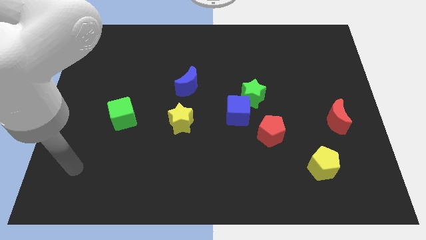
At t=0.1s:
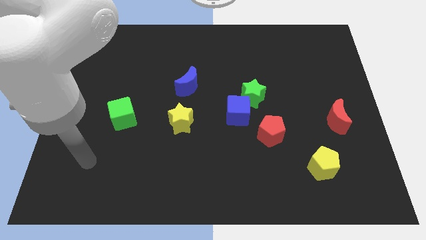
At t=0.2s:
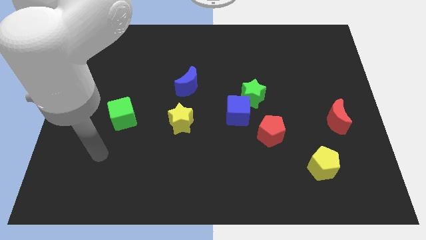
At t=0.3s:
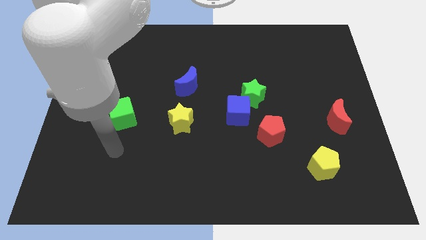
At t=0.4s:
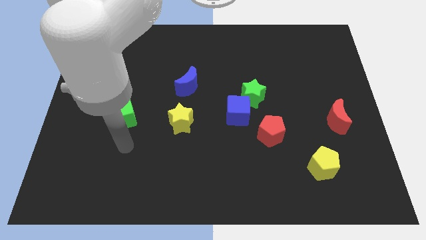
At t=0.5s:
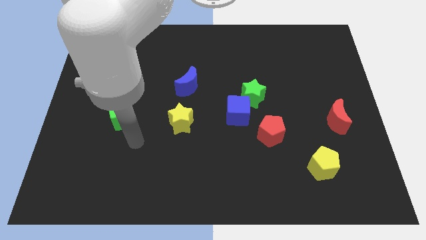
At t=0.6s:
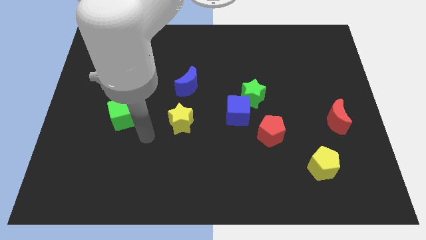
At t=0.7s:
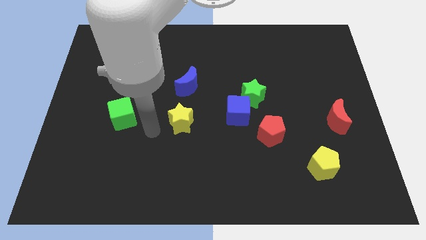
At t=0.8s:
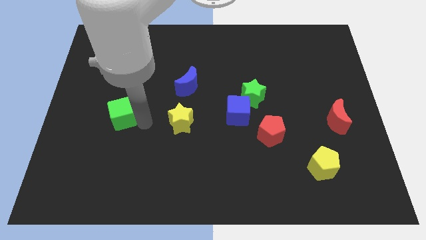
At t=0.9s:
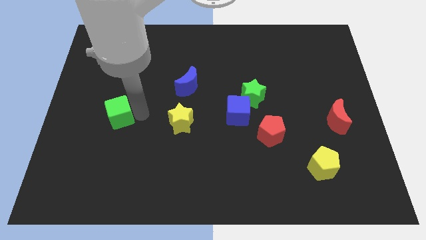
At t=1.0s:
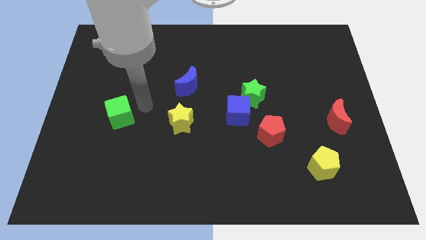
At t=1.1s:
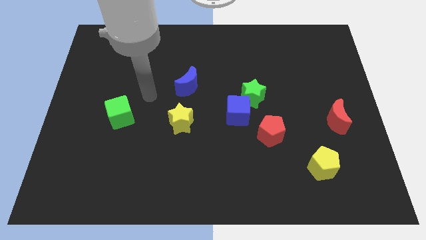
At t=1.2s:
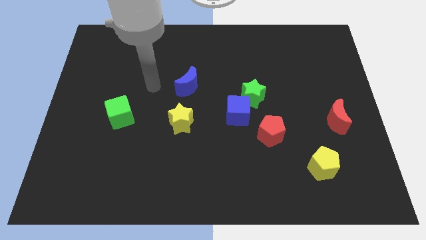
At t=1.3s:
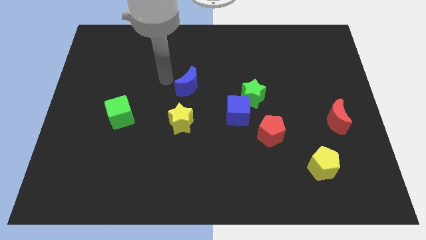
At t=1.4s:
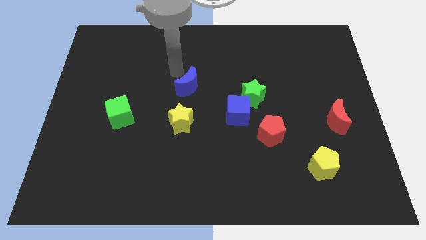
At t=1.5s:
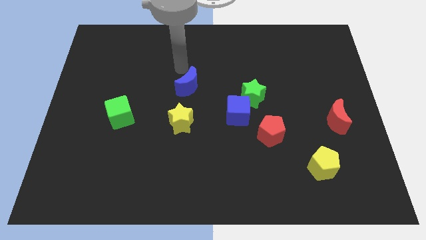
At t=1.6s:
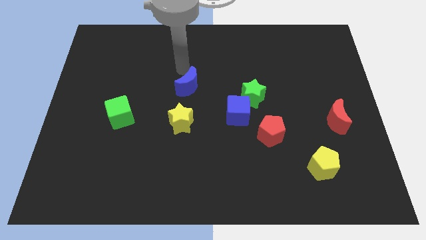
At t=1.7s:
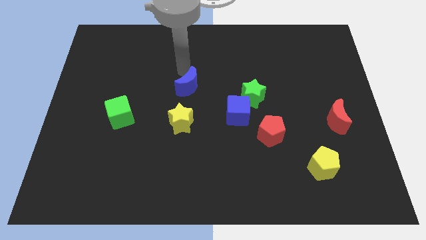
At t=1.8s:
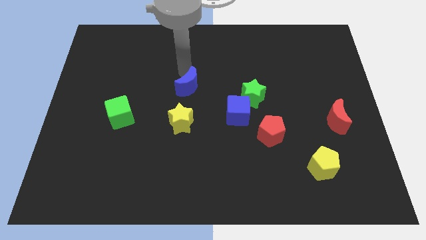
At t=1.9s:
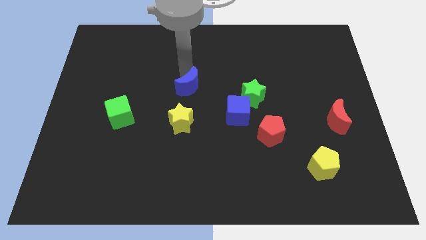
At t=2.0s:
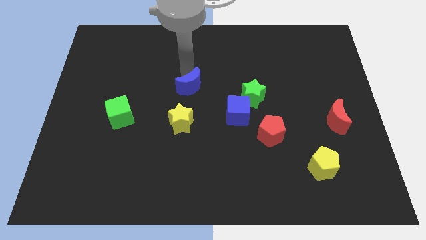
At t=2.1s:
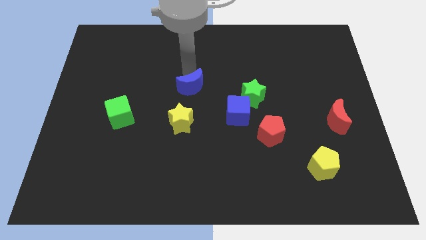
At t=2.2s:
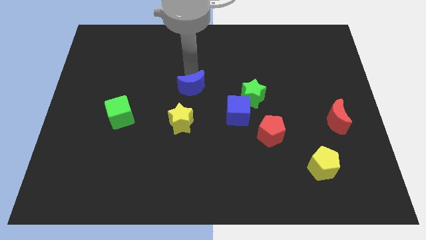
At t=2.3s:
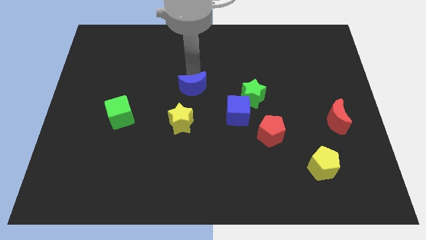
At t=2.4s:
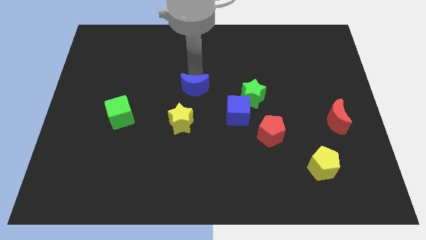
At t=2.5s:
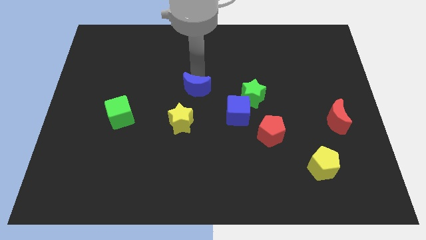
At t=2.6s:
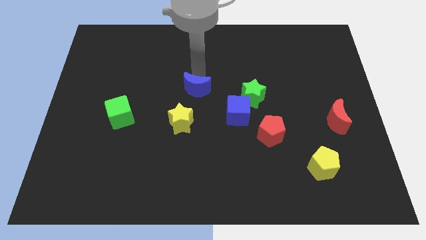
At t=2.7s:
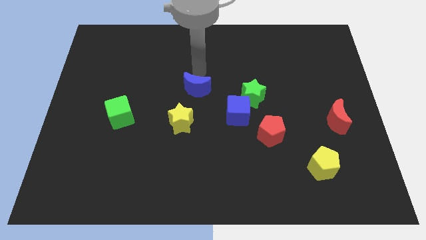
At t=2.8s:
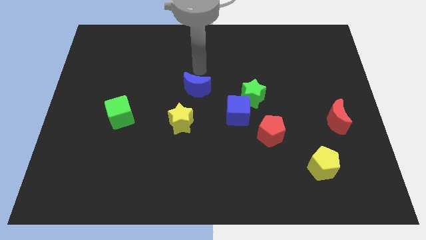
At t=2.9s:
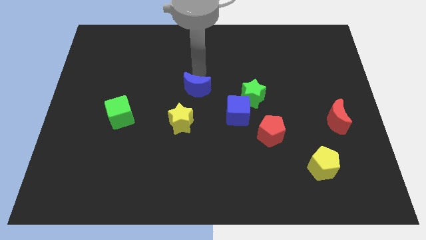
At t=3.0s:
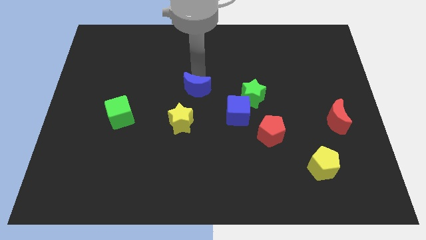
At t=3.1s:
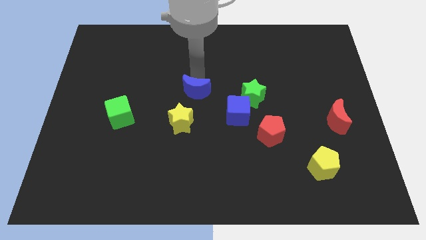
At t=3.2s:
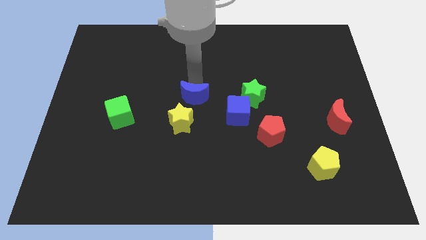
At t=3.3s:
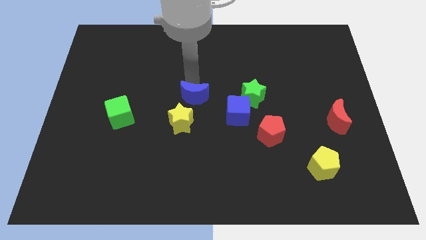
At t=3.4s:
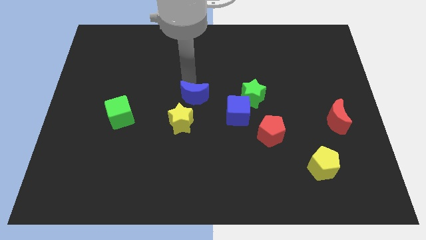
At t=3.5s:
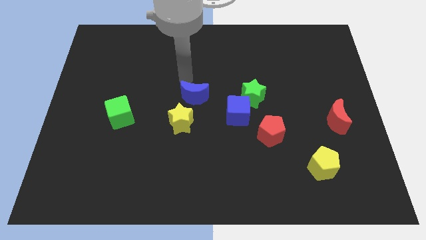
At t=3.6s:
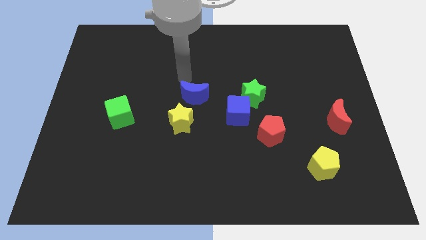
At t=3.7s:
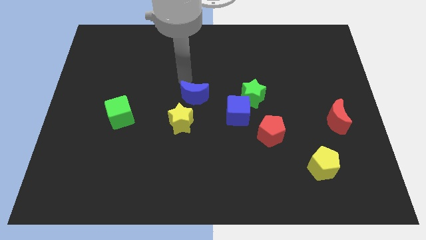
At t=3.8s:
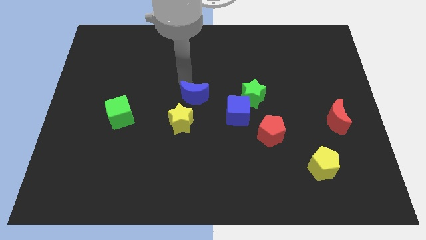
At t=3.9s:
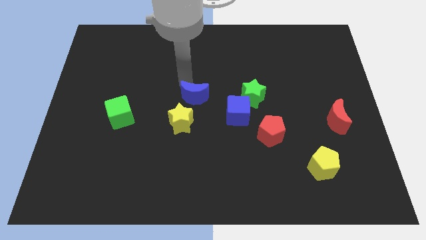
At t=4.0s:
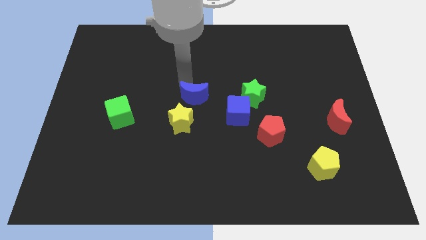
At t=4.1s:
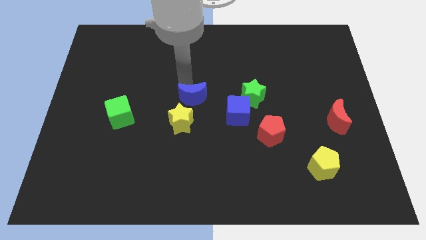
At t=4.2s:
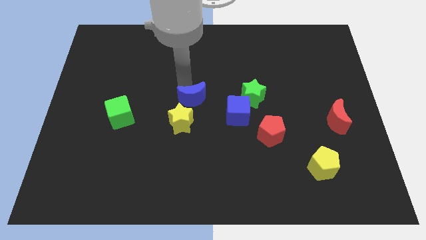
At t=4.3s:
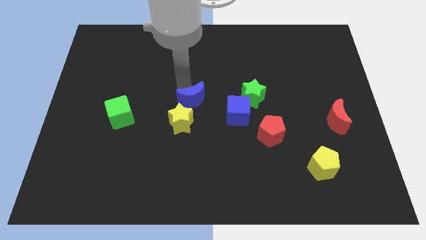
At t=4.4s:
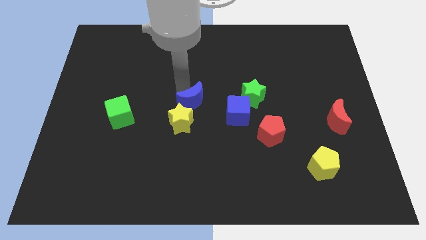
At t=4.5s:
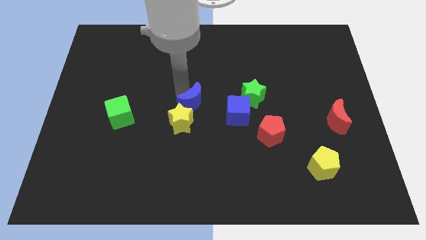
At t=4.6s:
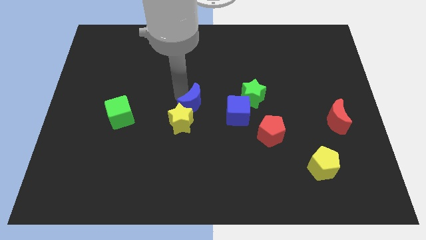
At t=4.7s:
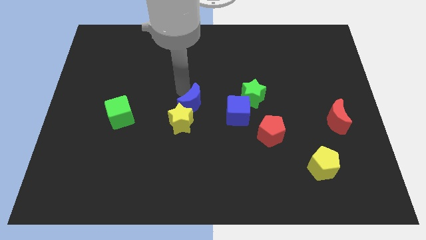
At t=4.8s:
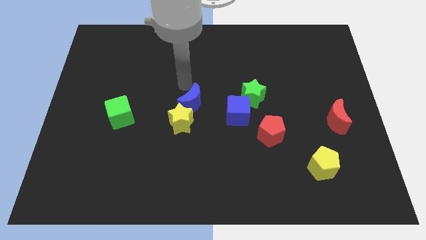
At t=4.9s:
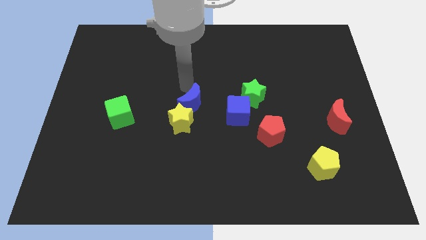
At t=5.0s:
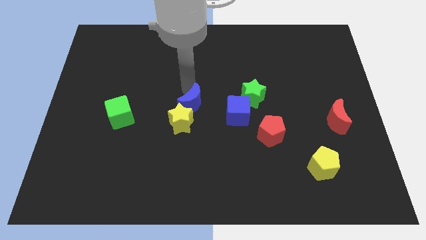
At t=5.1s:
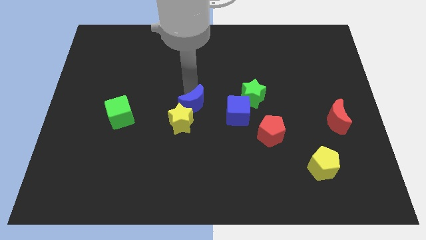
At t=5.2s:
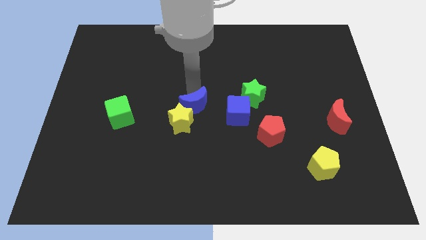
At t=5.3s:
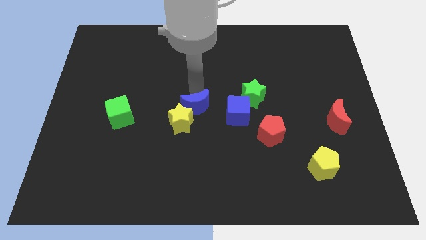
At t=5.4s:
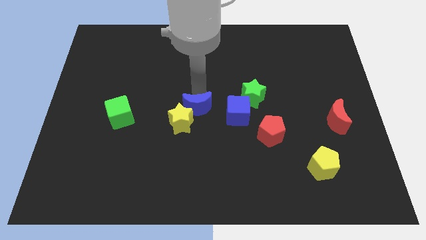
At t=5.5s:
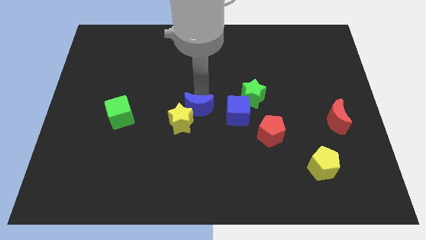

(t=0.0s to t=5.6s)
slide the blue moon a little bit down

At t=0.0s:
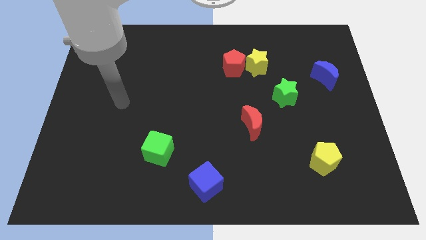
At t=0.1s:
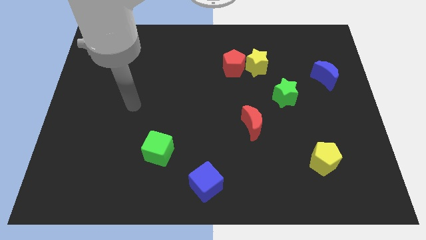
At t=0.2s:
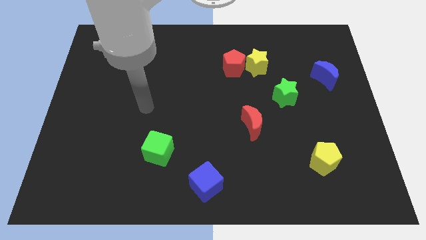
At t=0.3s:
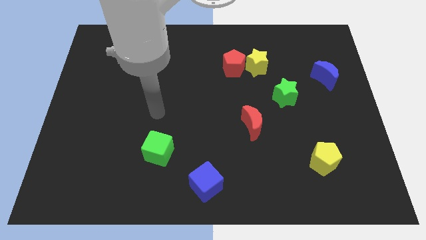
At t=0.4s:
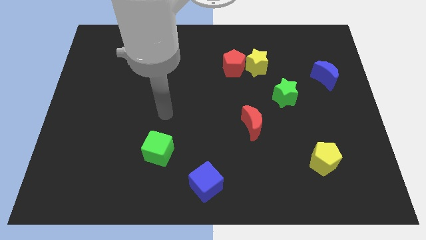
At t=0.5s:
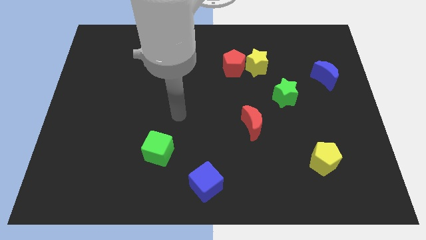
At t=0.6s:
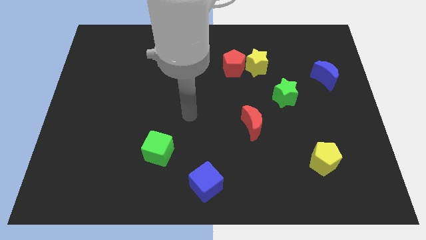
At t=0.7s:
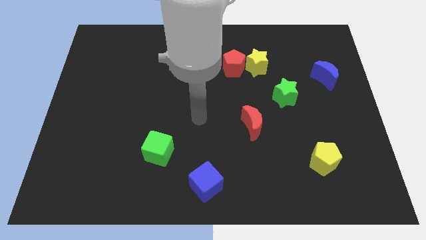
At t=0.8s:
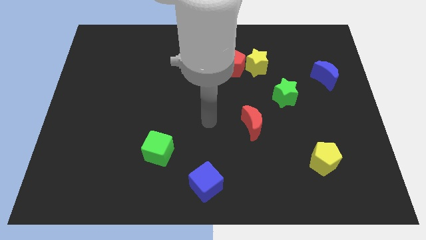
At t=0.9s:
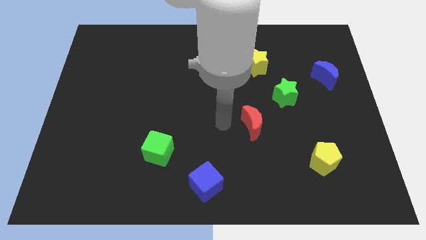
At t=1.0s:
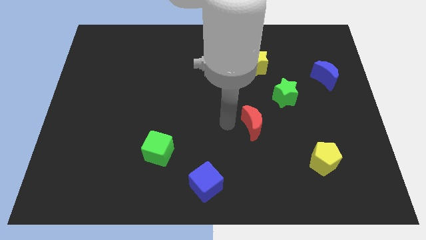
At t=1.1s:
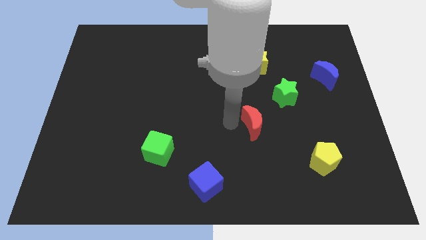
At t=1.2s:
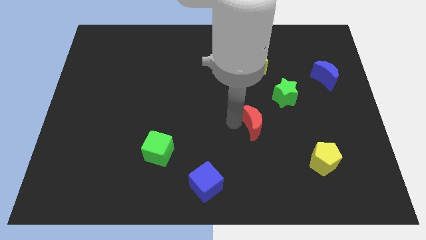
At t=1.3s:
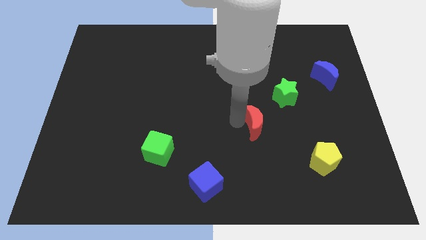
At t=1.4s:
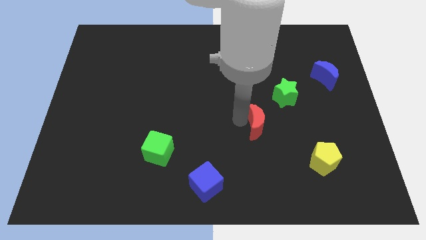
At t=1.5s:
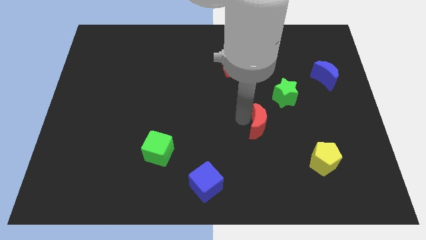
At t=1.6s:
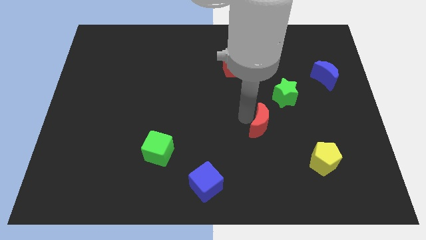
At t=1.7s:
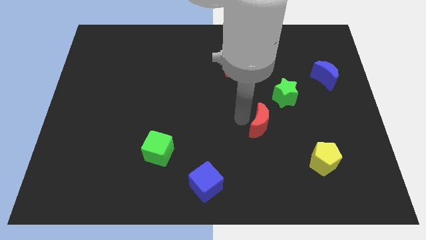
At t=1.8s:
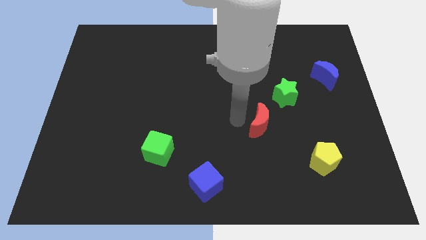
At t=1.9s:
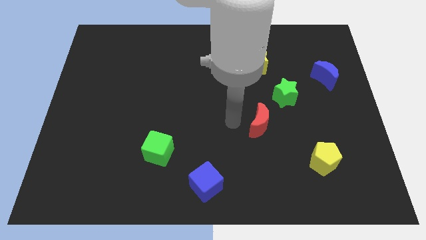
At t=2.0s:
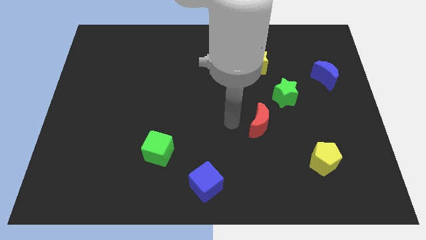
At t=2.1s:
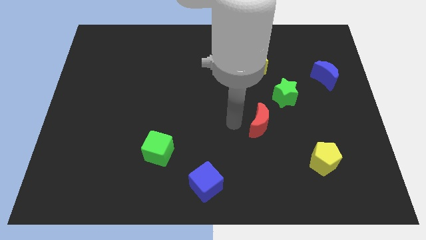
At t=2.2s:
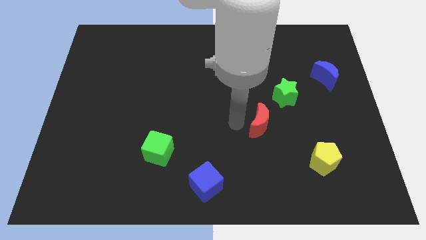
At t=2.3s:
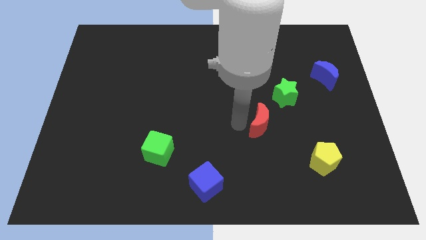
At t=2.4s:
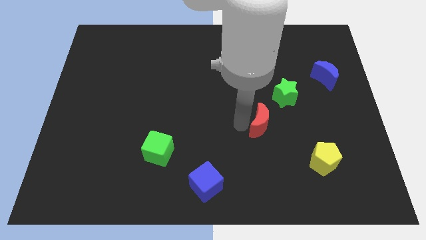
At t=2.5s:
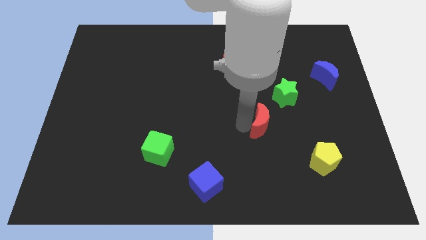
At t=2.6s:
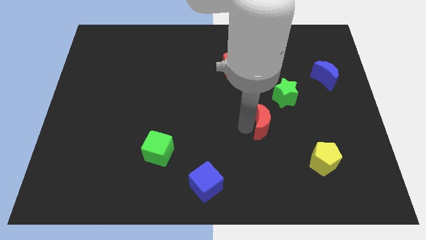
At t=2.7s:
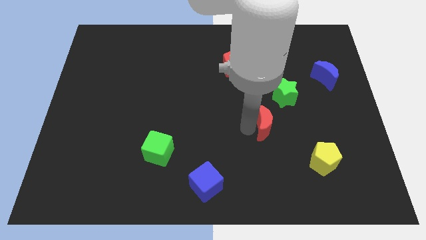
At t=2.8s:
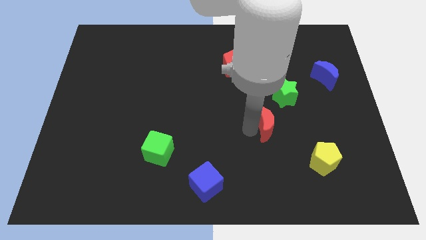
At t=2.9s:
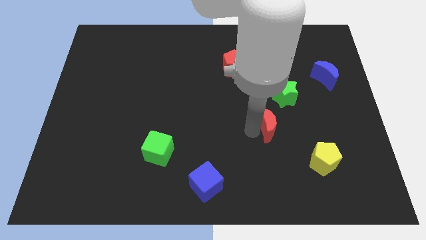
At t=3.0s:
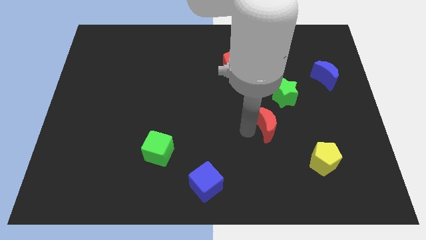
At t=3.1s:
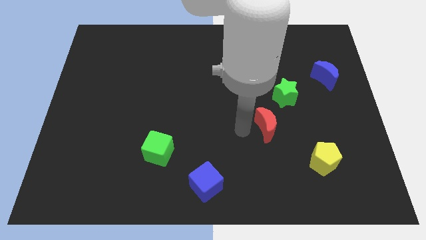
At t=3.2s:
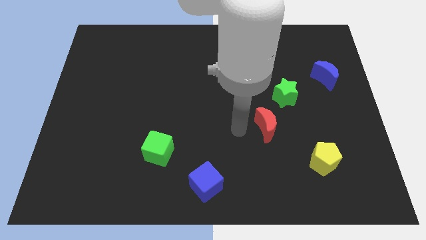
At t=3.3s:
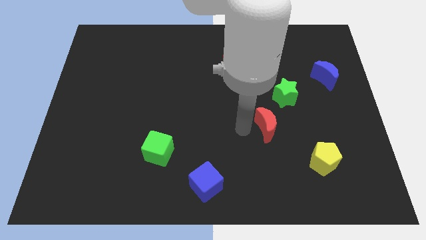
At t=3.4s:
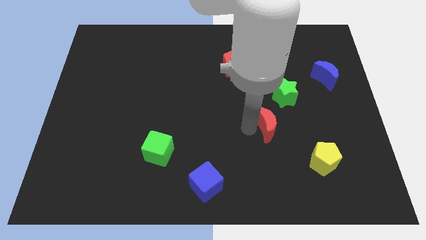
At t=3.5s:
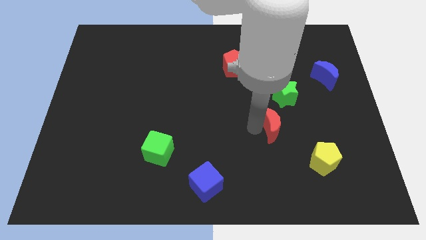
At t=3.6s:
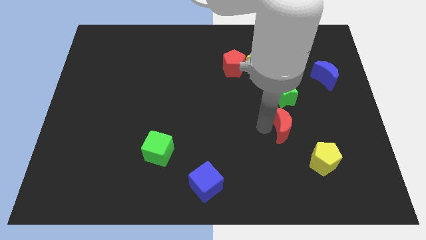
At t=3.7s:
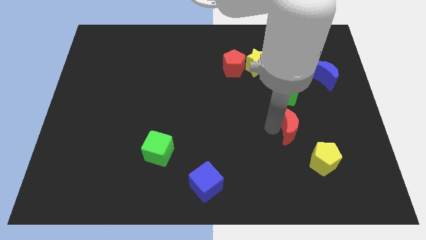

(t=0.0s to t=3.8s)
slightly move the red moon right
